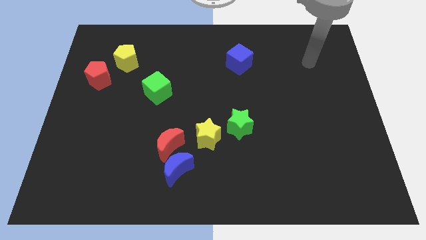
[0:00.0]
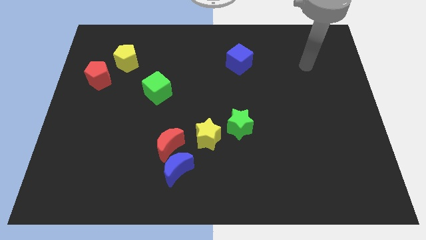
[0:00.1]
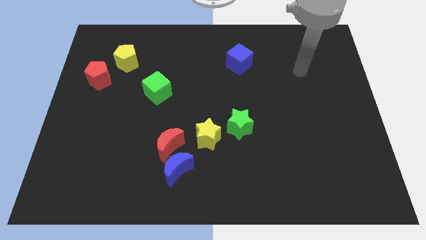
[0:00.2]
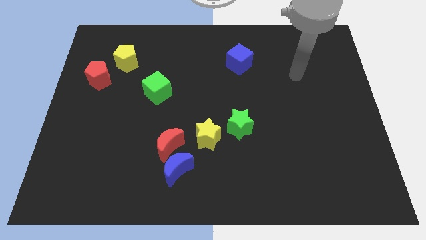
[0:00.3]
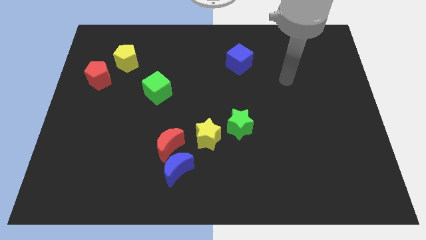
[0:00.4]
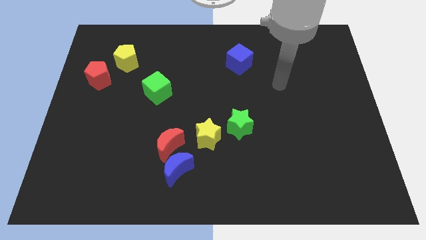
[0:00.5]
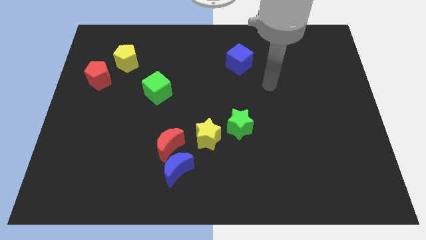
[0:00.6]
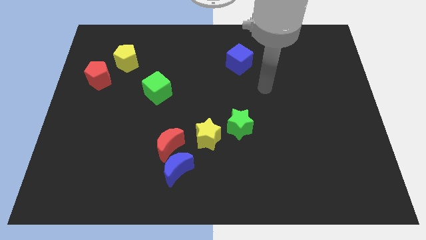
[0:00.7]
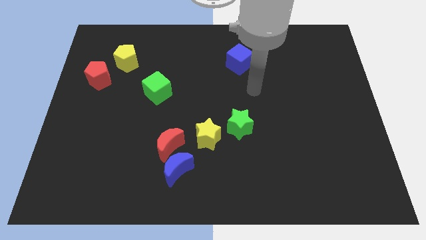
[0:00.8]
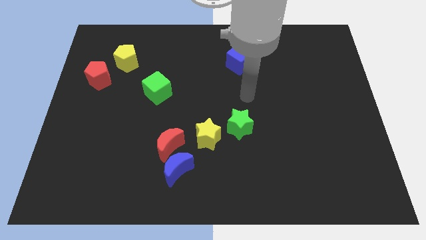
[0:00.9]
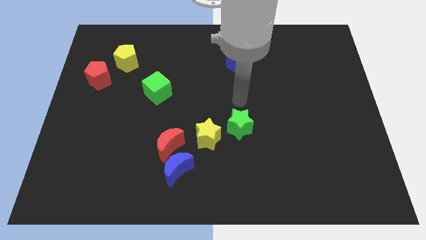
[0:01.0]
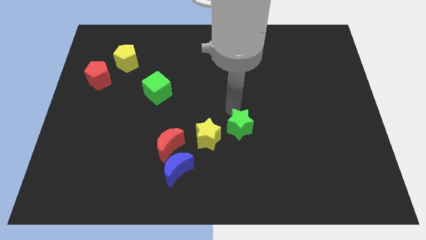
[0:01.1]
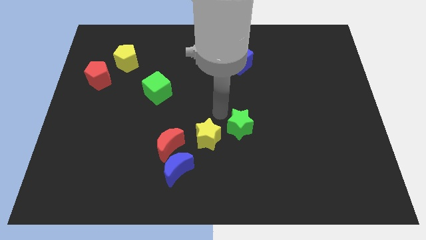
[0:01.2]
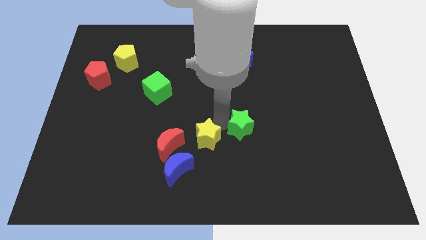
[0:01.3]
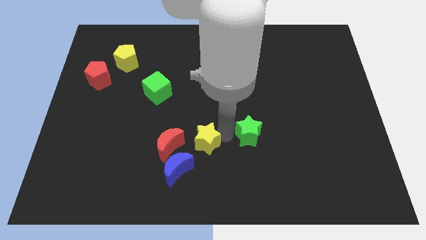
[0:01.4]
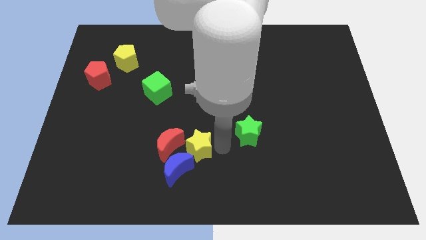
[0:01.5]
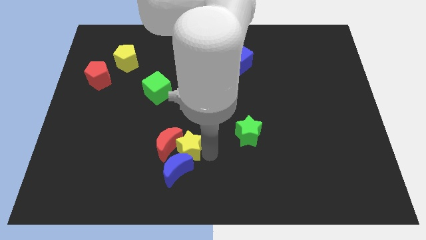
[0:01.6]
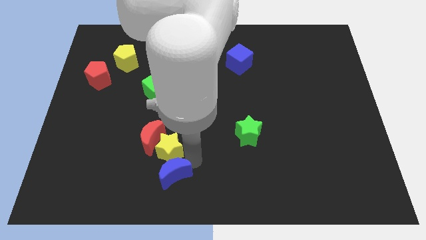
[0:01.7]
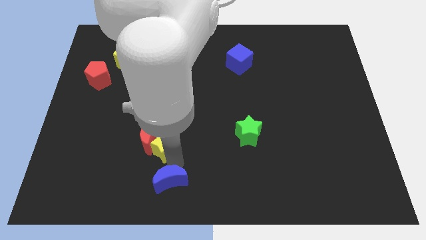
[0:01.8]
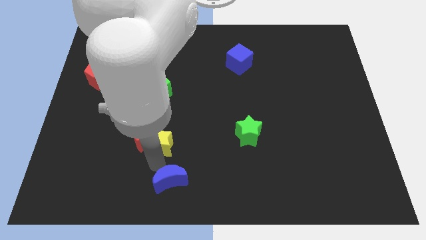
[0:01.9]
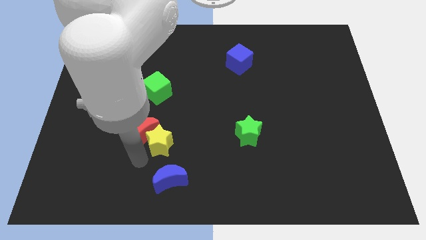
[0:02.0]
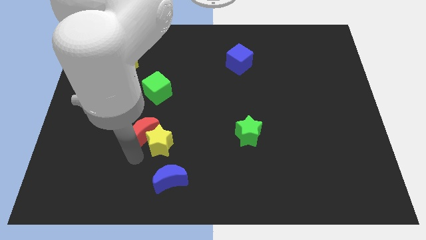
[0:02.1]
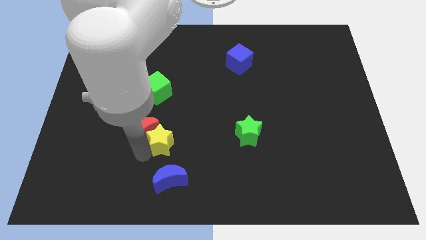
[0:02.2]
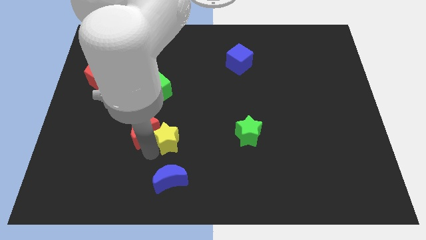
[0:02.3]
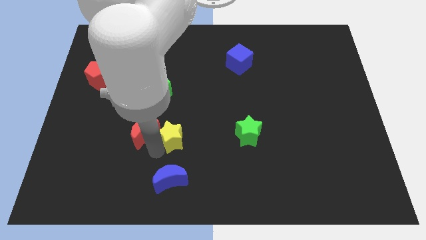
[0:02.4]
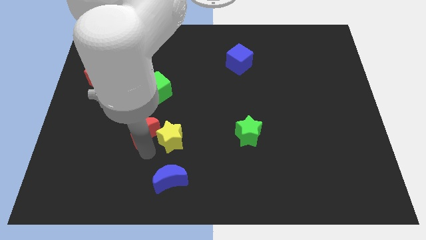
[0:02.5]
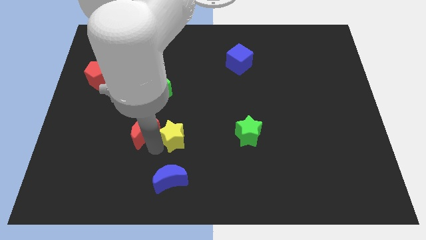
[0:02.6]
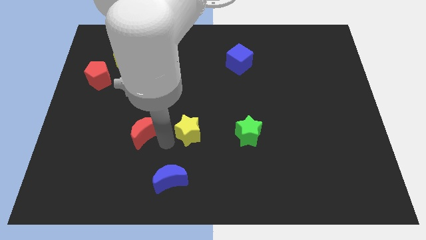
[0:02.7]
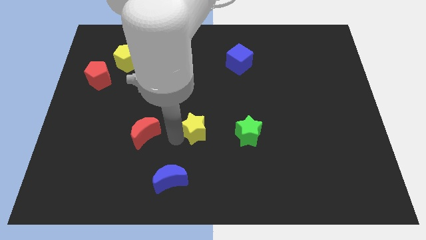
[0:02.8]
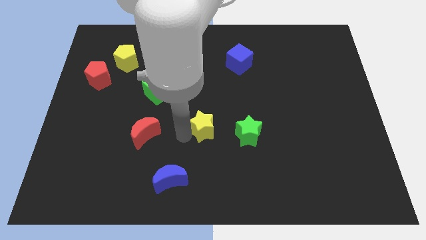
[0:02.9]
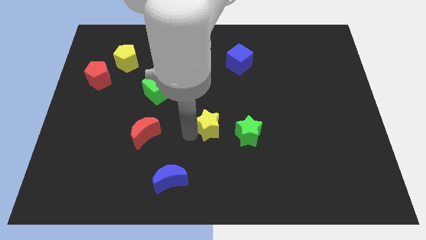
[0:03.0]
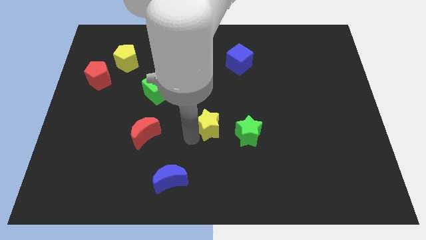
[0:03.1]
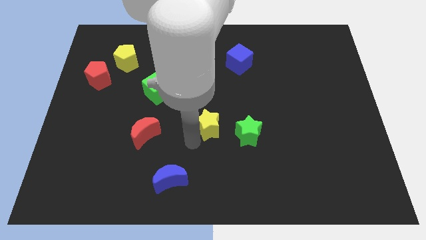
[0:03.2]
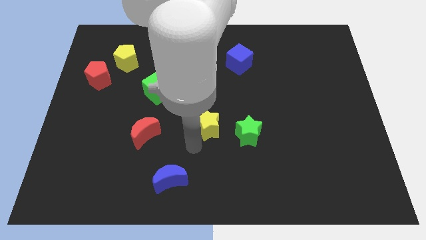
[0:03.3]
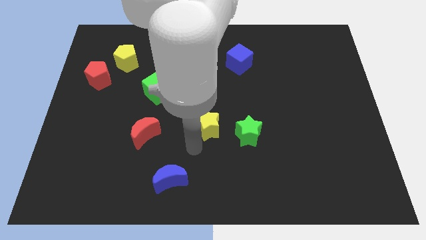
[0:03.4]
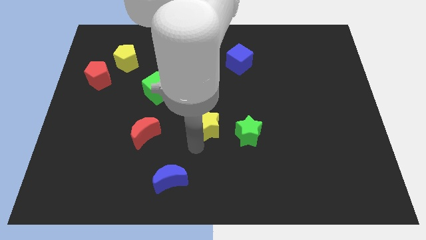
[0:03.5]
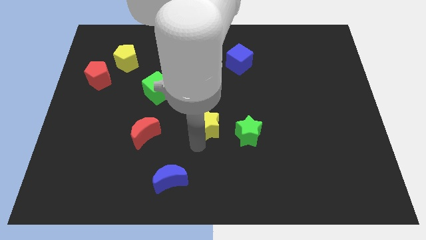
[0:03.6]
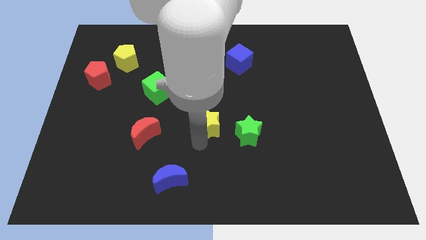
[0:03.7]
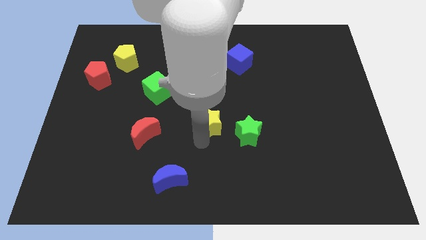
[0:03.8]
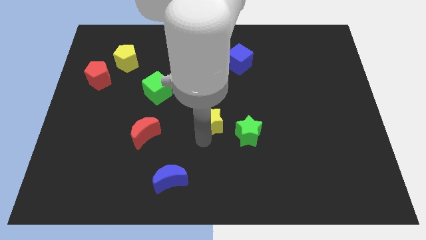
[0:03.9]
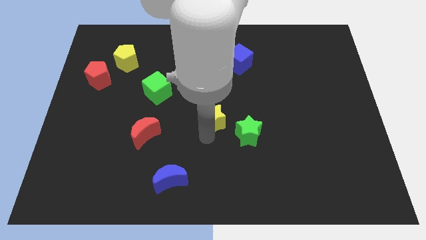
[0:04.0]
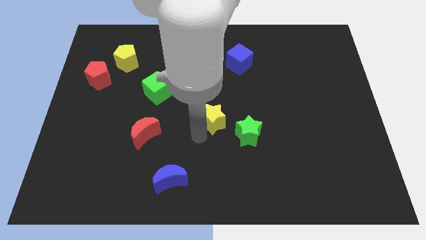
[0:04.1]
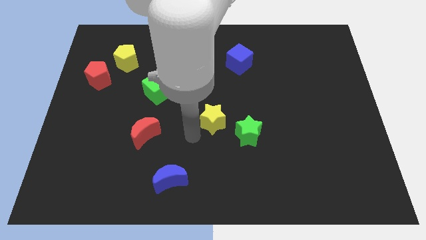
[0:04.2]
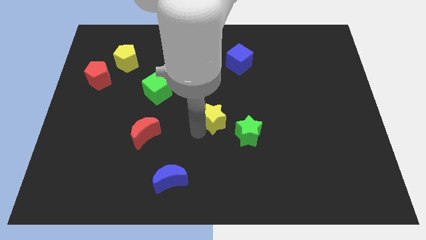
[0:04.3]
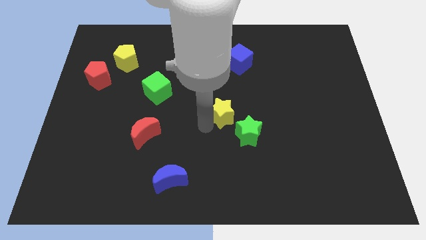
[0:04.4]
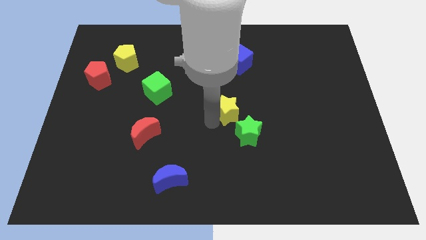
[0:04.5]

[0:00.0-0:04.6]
push the yellow star to the top side of the green star

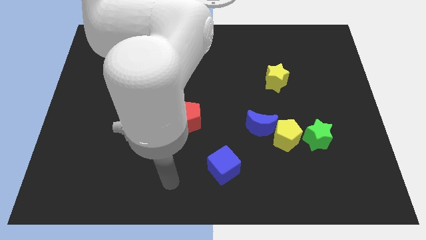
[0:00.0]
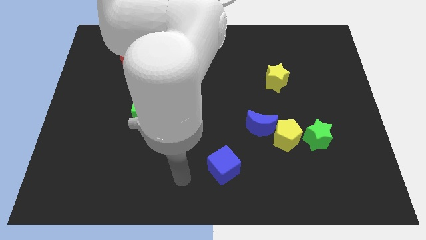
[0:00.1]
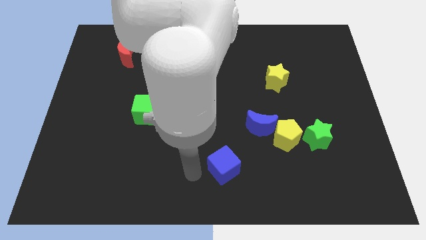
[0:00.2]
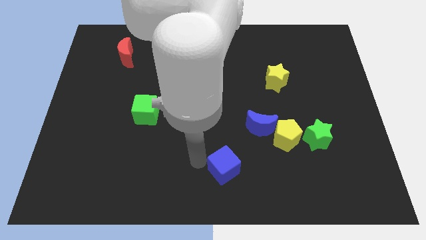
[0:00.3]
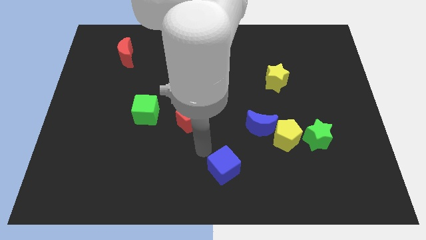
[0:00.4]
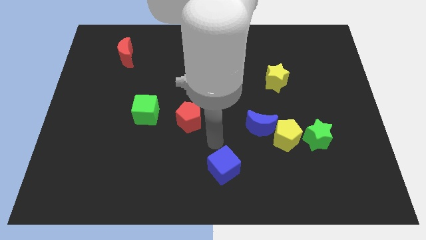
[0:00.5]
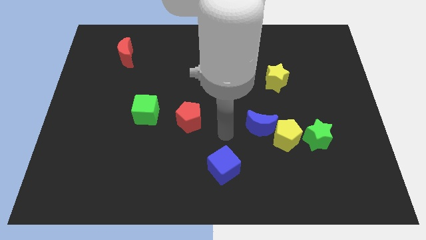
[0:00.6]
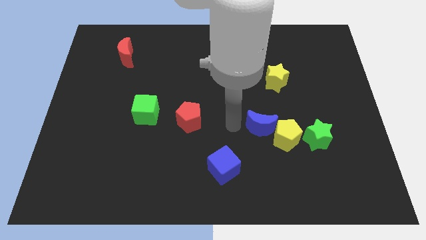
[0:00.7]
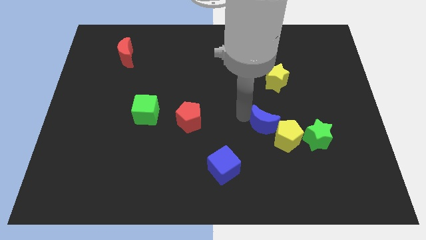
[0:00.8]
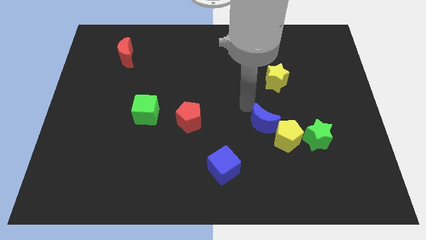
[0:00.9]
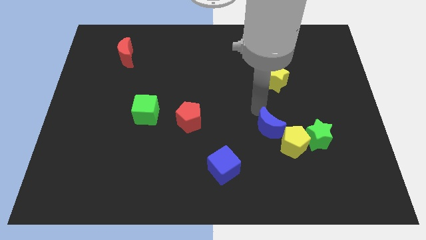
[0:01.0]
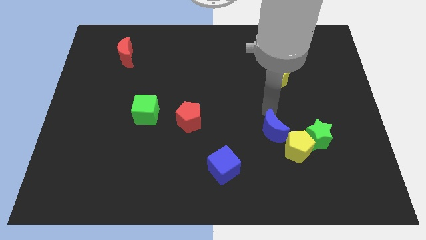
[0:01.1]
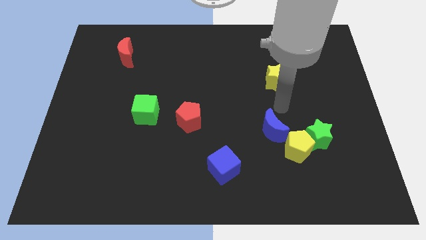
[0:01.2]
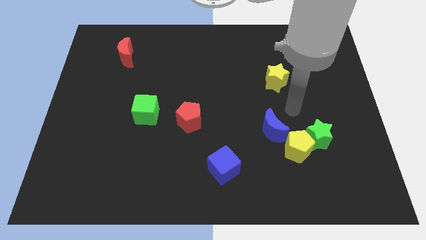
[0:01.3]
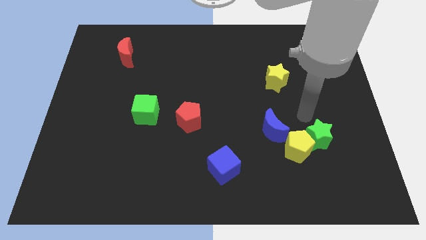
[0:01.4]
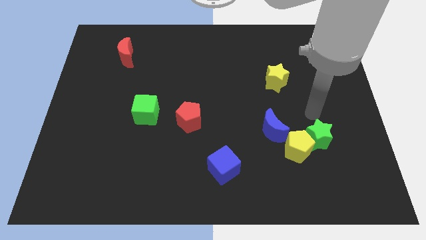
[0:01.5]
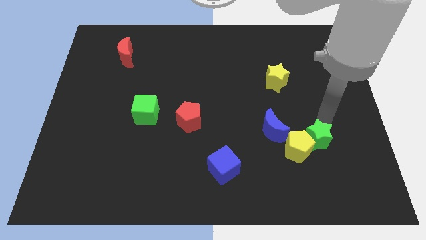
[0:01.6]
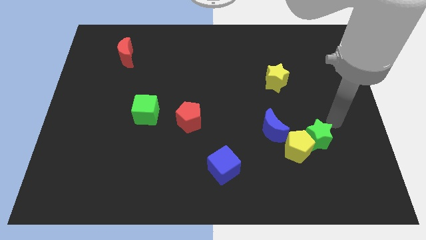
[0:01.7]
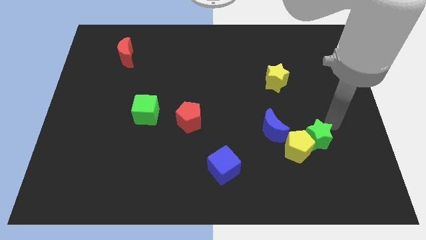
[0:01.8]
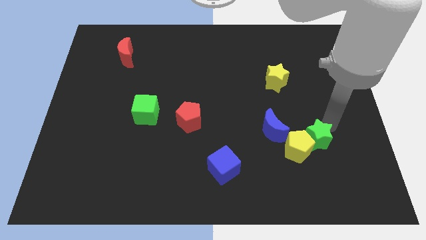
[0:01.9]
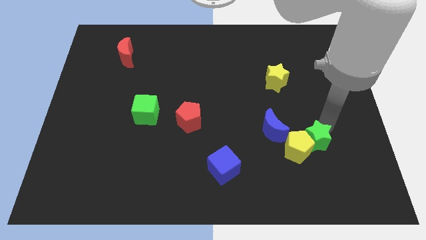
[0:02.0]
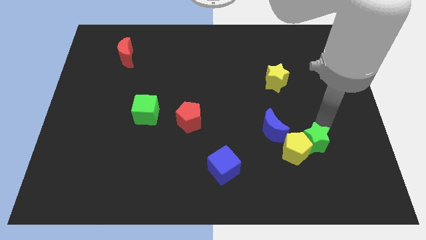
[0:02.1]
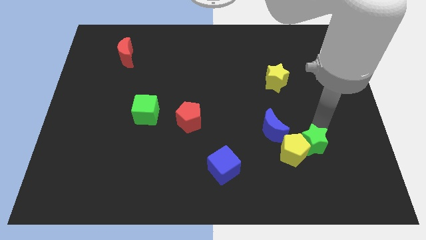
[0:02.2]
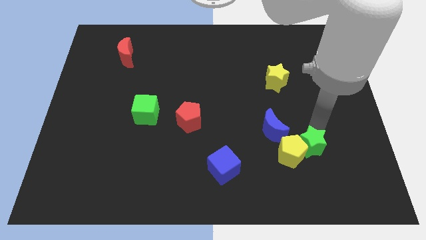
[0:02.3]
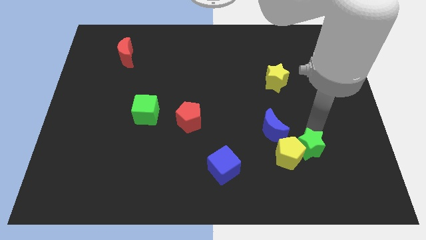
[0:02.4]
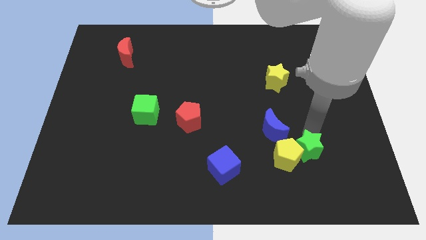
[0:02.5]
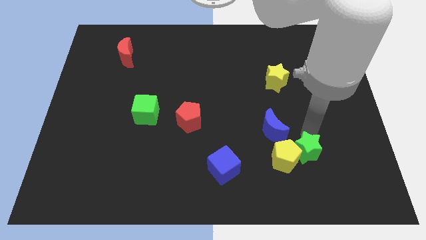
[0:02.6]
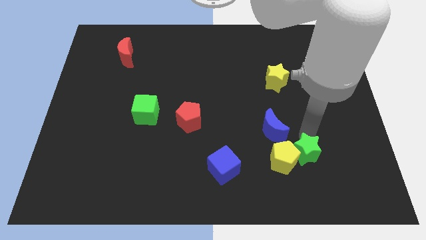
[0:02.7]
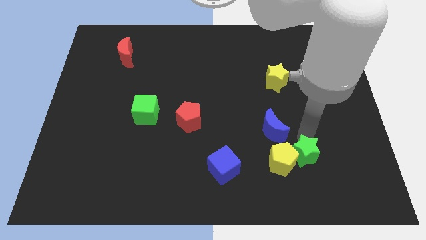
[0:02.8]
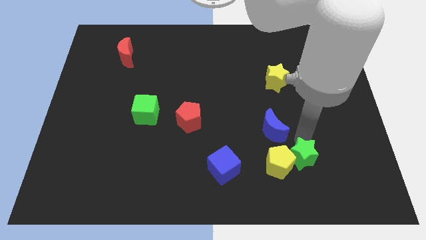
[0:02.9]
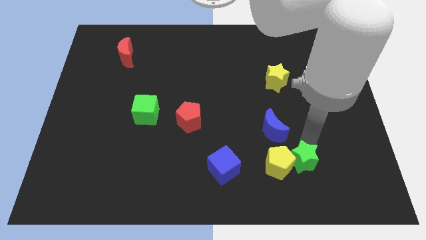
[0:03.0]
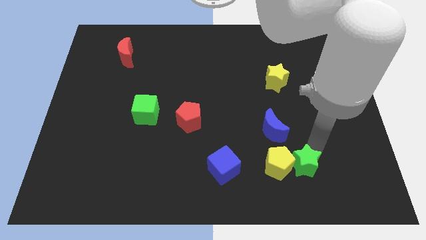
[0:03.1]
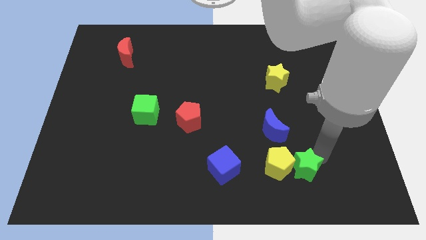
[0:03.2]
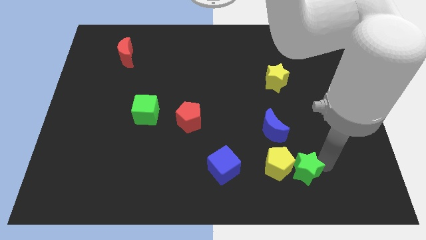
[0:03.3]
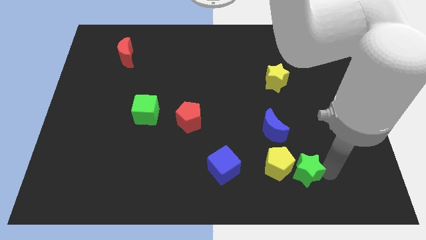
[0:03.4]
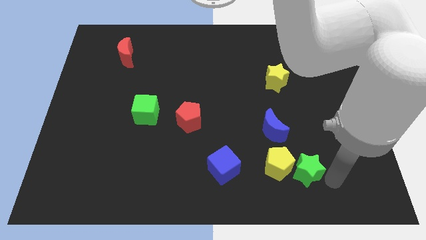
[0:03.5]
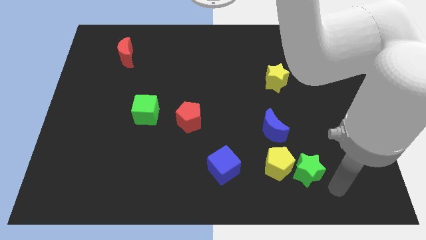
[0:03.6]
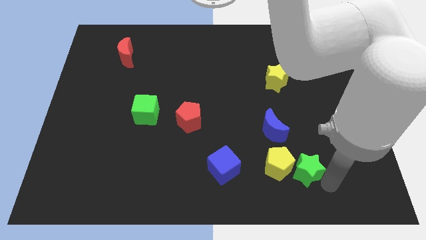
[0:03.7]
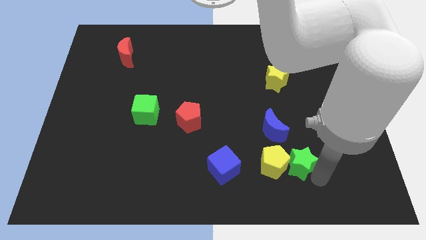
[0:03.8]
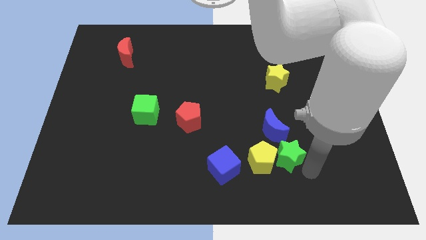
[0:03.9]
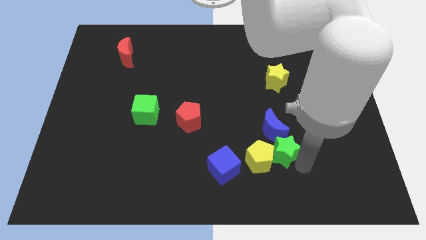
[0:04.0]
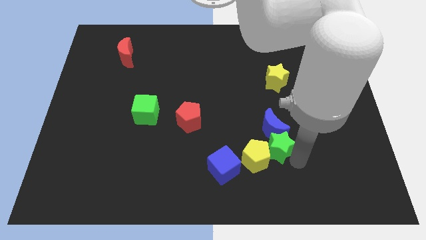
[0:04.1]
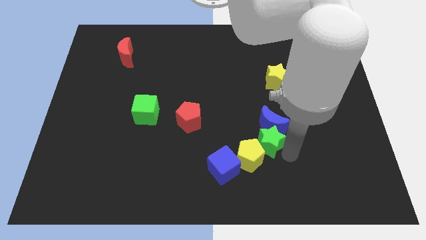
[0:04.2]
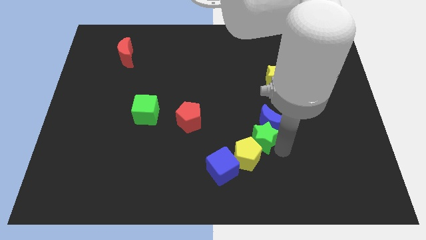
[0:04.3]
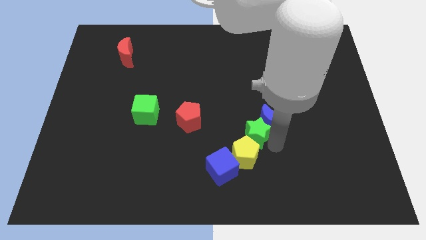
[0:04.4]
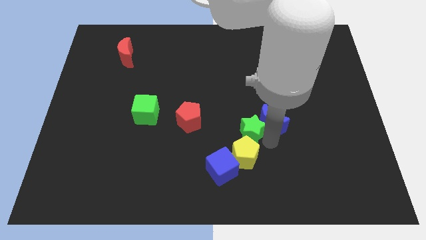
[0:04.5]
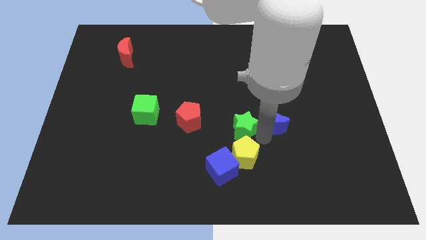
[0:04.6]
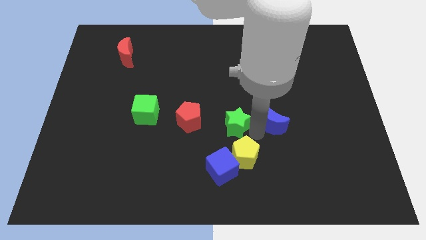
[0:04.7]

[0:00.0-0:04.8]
put the green star to the top of the blue cube
